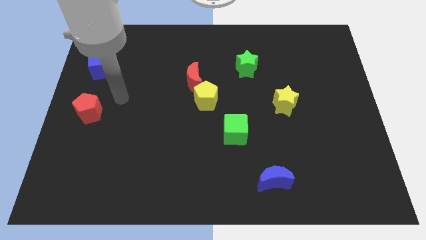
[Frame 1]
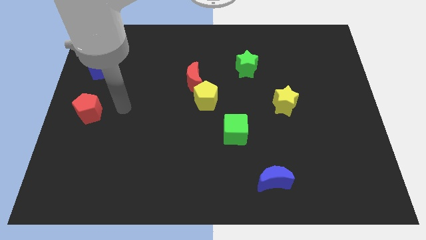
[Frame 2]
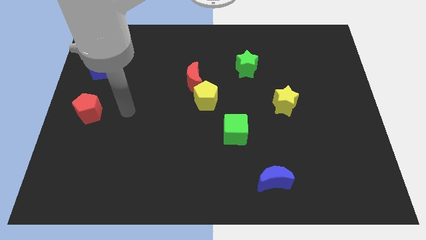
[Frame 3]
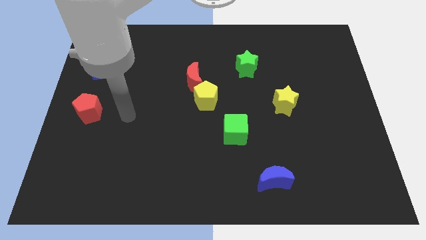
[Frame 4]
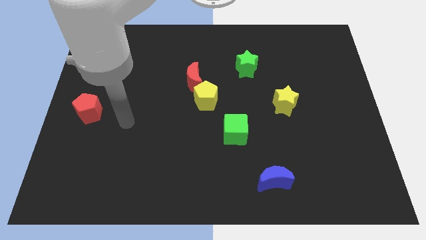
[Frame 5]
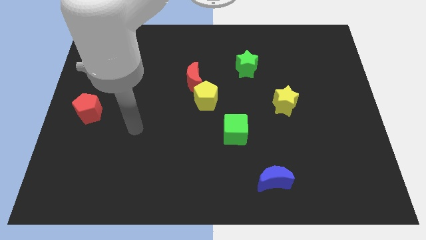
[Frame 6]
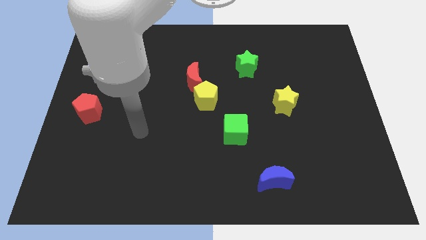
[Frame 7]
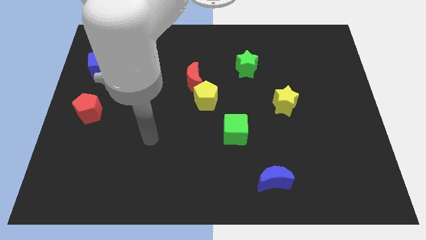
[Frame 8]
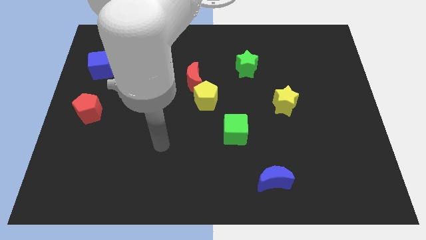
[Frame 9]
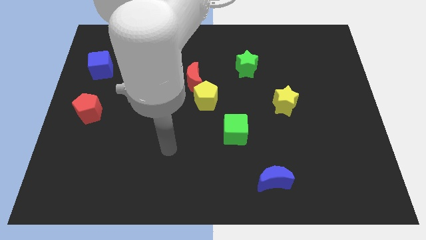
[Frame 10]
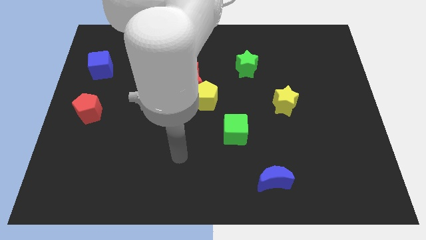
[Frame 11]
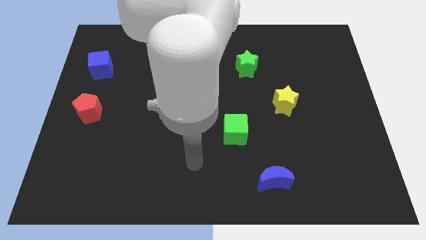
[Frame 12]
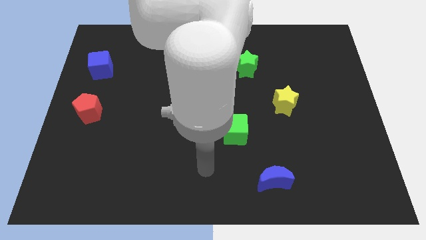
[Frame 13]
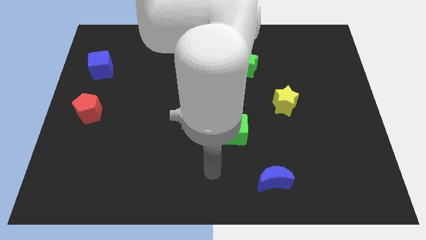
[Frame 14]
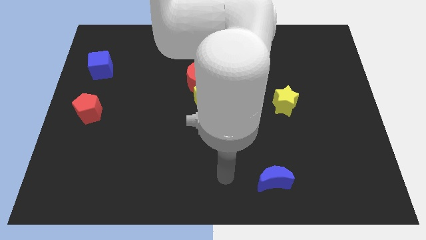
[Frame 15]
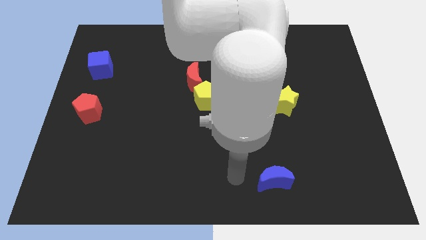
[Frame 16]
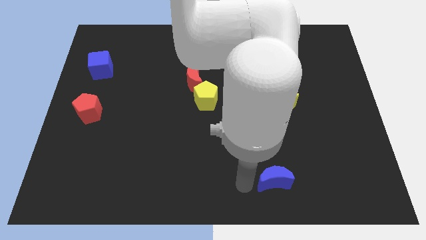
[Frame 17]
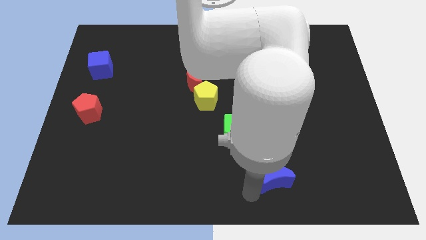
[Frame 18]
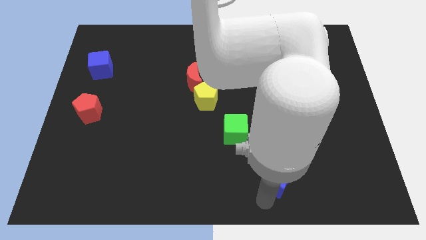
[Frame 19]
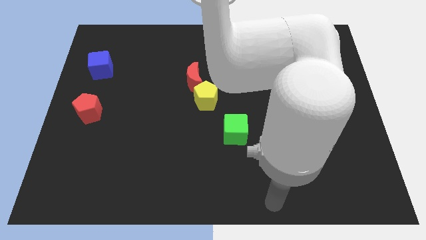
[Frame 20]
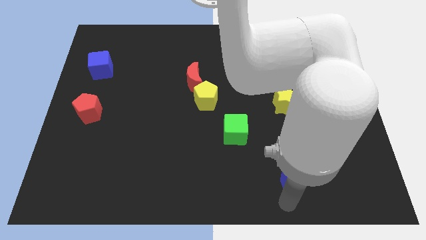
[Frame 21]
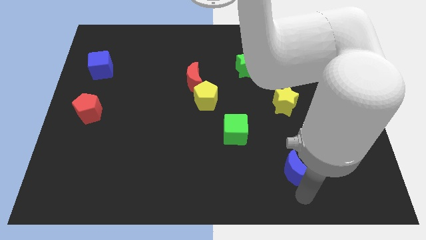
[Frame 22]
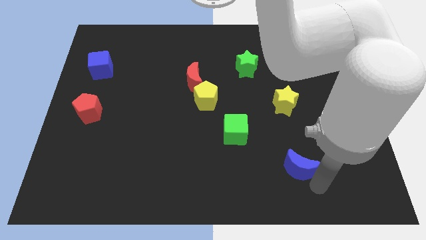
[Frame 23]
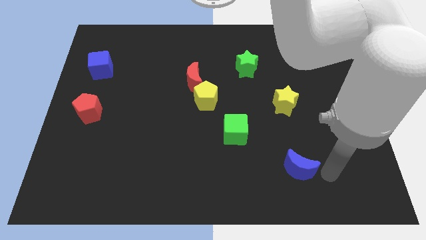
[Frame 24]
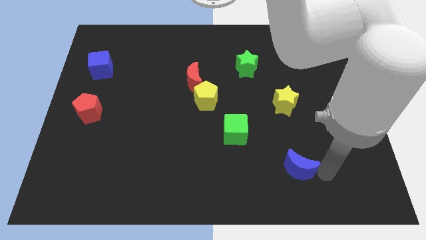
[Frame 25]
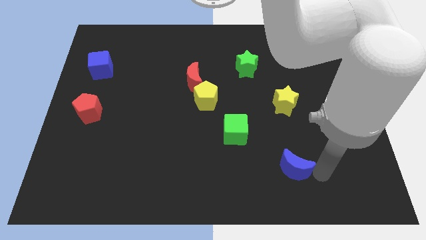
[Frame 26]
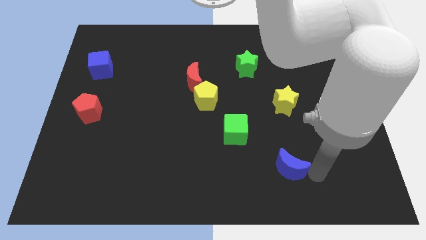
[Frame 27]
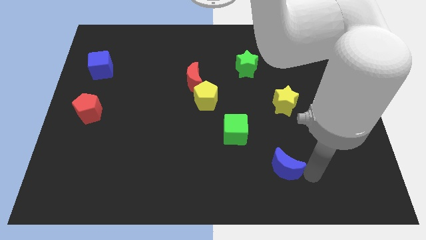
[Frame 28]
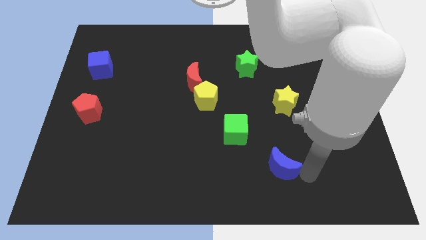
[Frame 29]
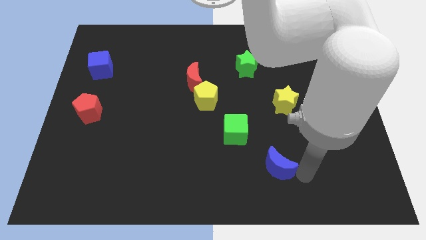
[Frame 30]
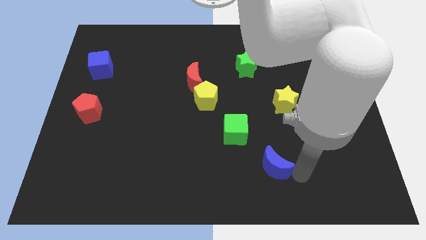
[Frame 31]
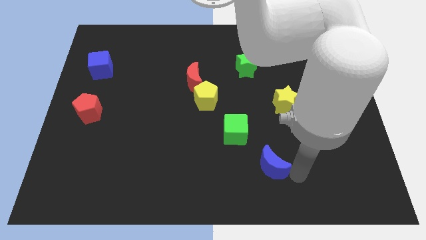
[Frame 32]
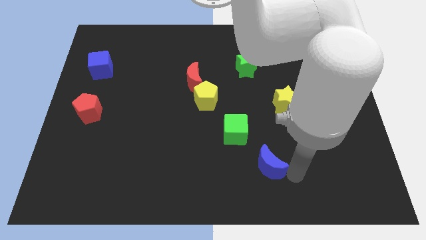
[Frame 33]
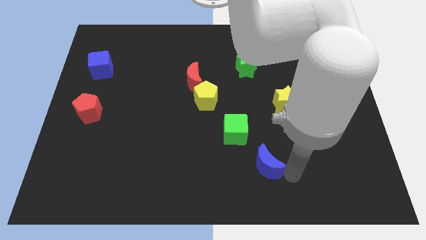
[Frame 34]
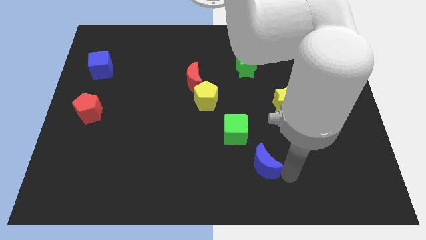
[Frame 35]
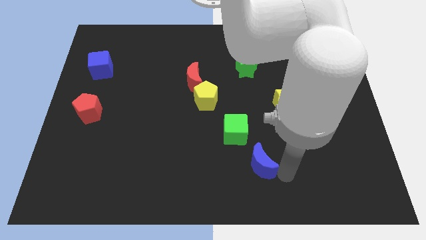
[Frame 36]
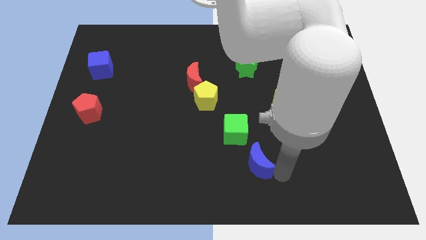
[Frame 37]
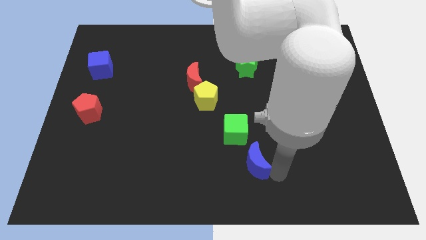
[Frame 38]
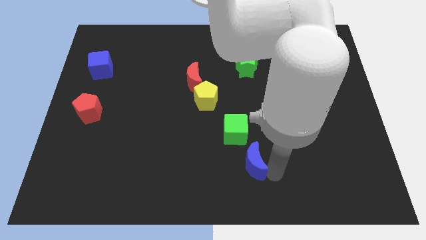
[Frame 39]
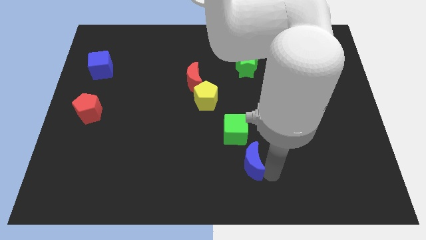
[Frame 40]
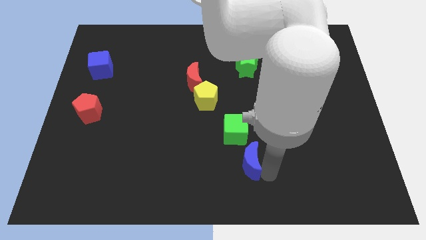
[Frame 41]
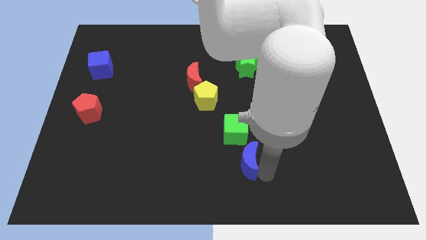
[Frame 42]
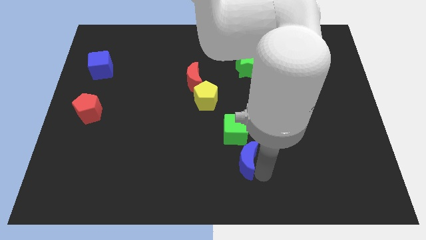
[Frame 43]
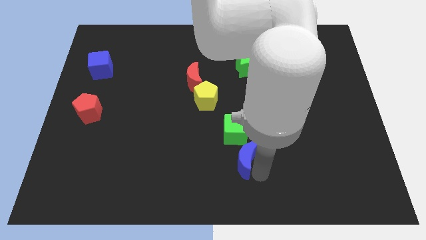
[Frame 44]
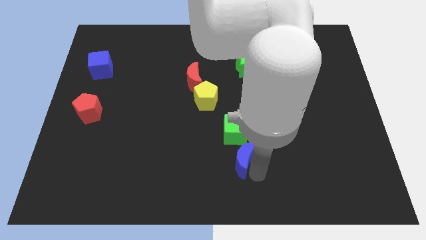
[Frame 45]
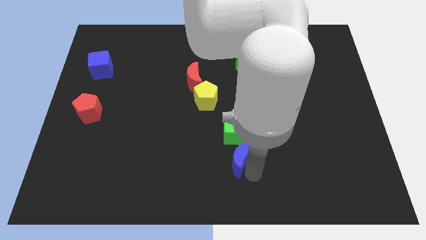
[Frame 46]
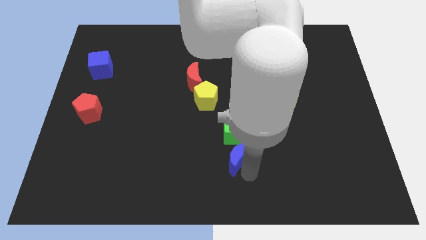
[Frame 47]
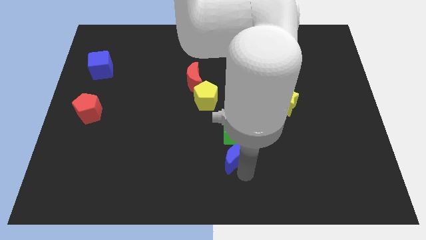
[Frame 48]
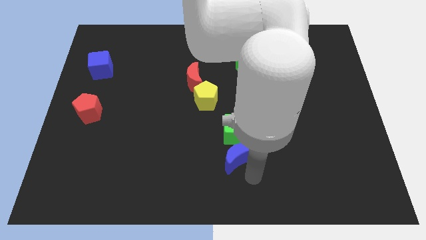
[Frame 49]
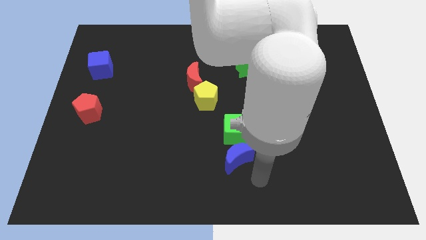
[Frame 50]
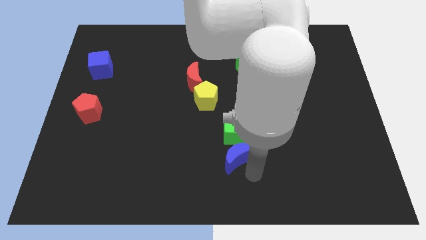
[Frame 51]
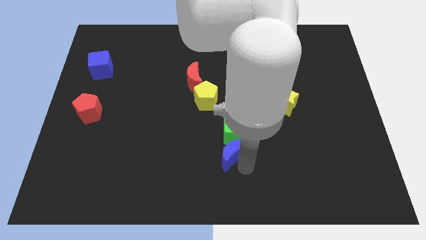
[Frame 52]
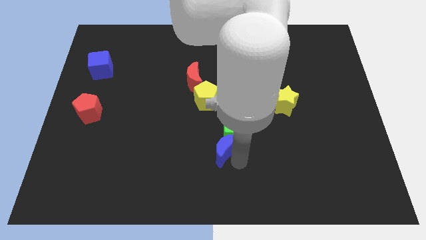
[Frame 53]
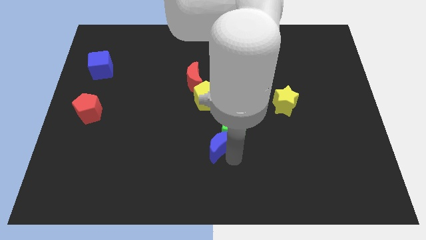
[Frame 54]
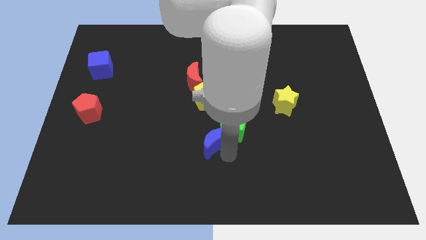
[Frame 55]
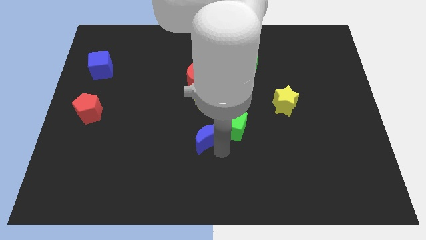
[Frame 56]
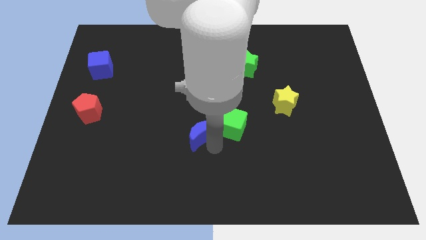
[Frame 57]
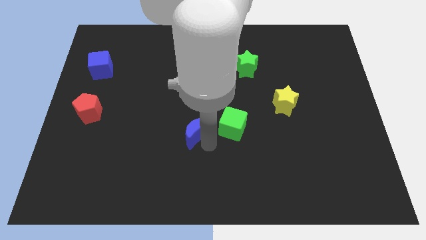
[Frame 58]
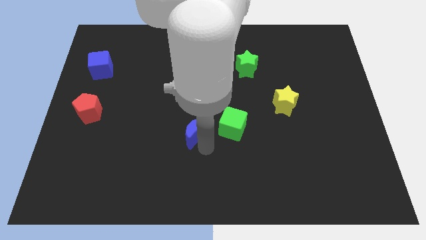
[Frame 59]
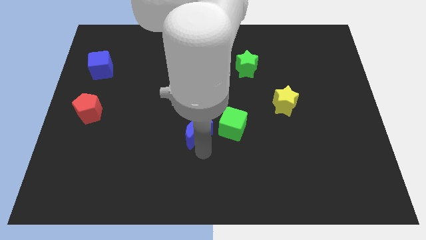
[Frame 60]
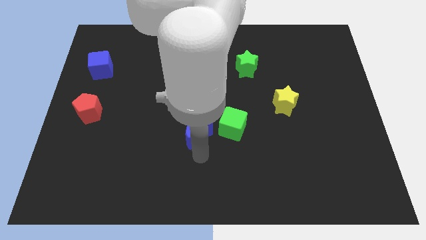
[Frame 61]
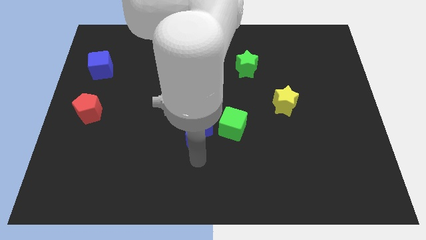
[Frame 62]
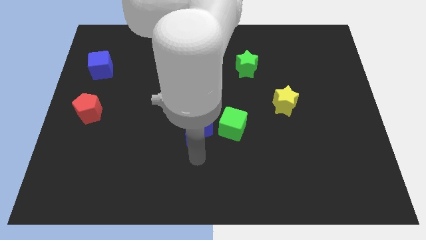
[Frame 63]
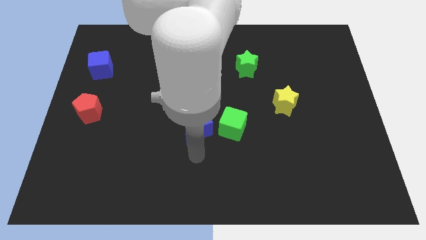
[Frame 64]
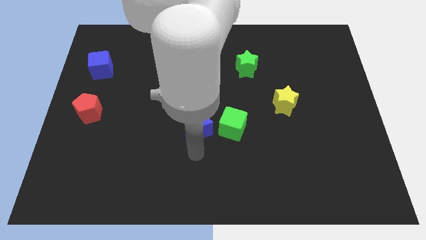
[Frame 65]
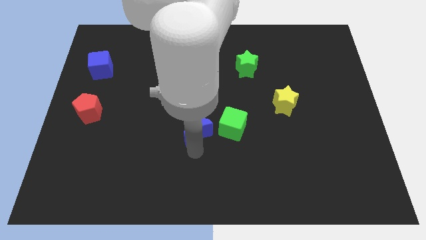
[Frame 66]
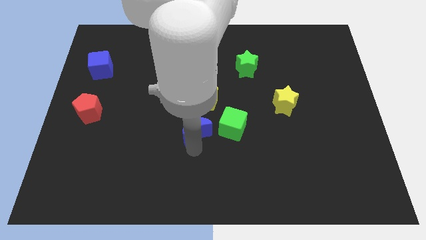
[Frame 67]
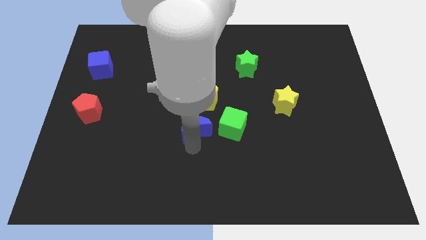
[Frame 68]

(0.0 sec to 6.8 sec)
push the blue moon up and left

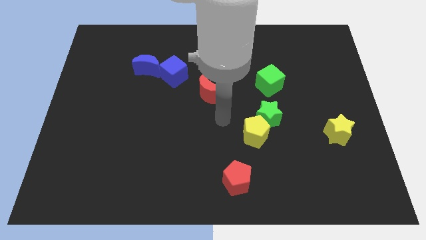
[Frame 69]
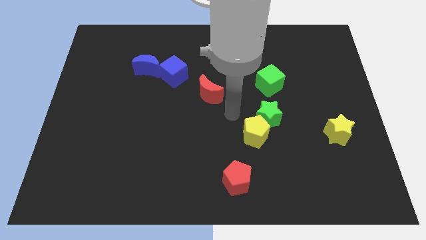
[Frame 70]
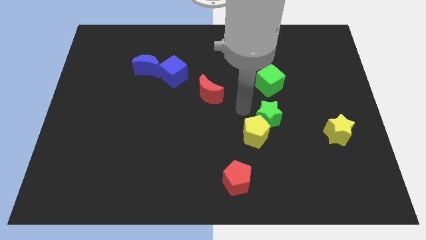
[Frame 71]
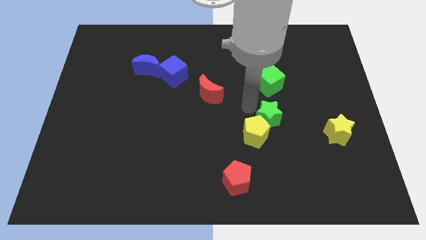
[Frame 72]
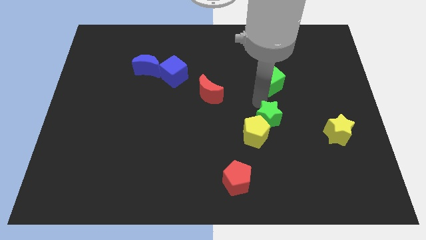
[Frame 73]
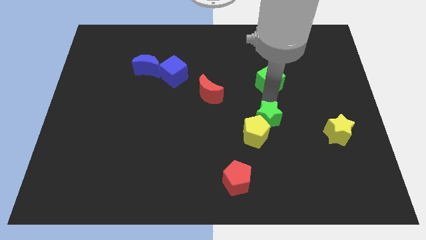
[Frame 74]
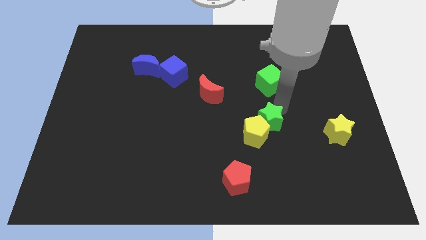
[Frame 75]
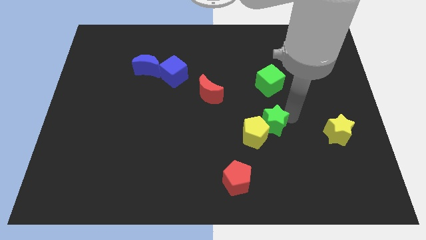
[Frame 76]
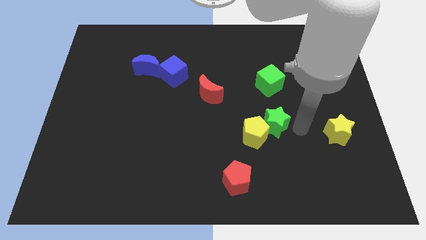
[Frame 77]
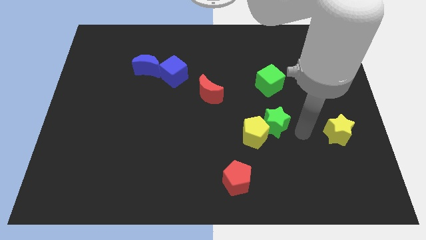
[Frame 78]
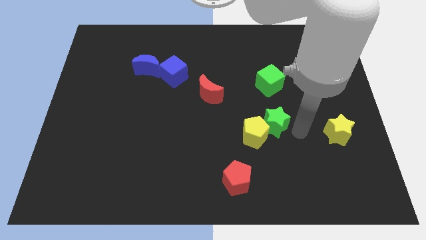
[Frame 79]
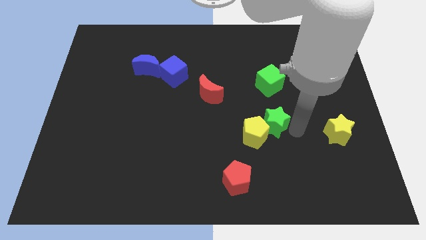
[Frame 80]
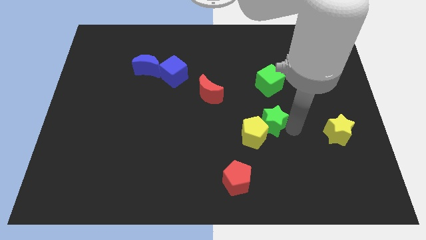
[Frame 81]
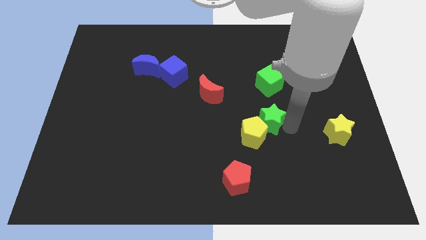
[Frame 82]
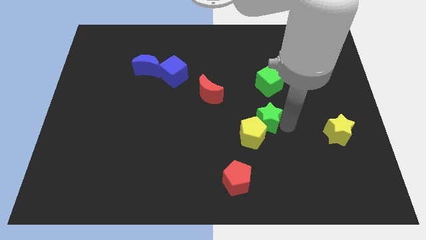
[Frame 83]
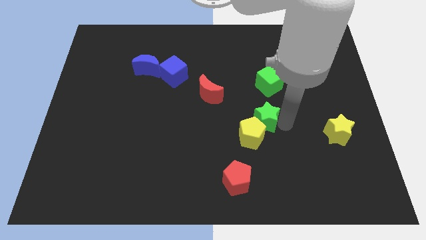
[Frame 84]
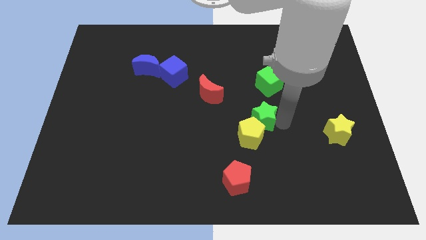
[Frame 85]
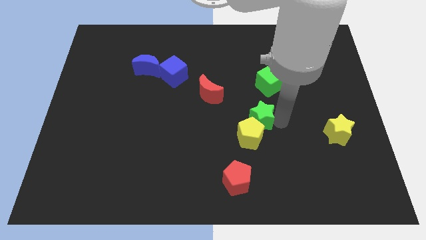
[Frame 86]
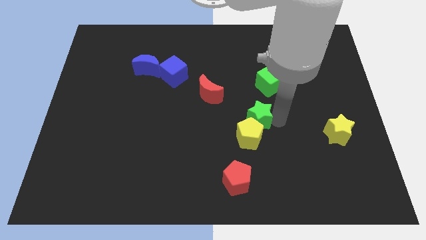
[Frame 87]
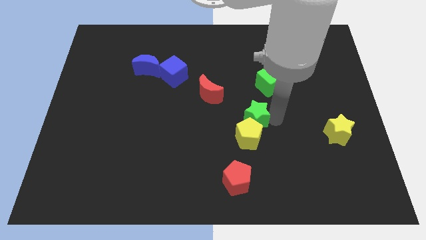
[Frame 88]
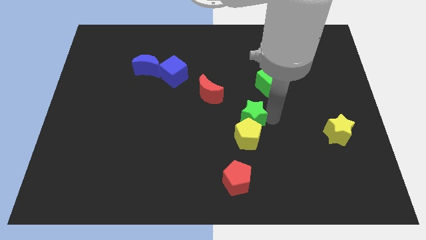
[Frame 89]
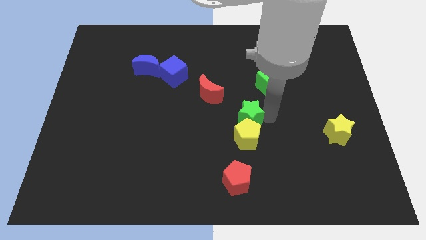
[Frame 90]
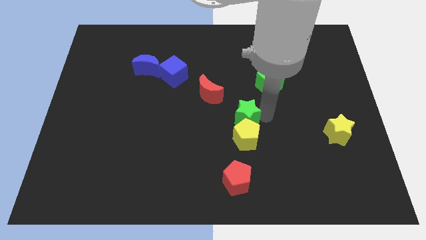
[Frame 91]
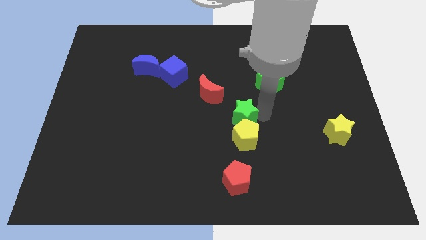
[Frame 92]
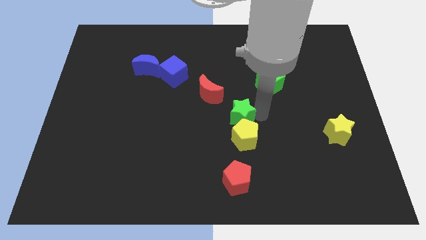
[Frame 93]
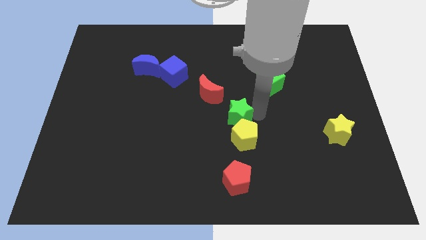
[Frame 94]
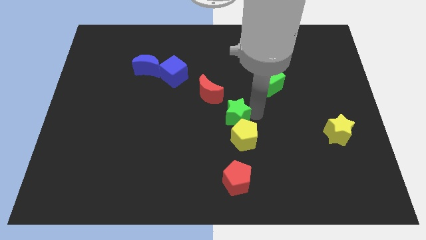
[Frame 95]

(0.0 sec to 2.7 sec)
push the green star a bit left
